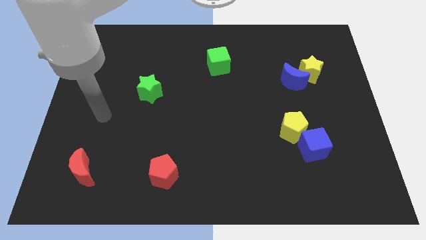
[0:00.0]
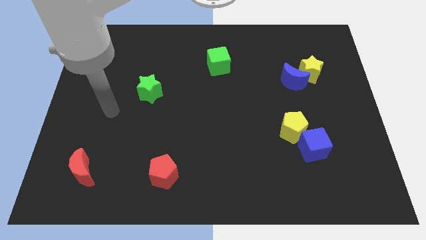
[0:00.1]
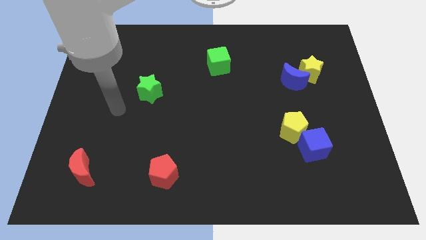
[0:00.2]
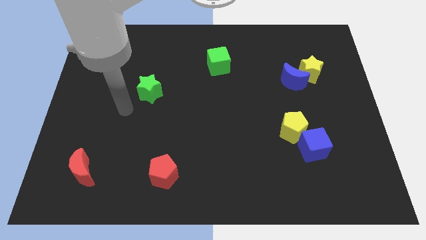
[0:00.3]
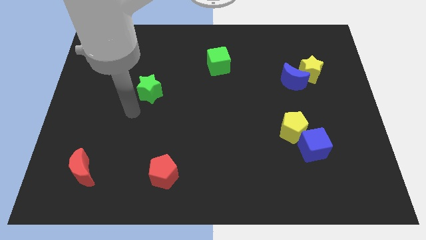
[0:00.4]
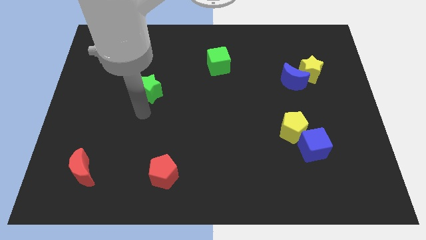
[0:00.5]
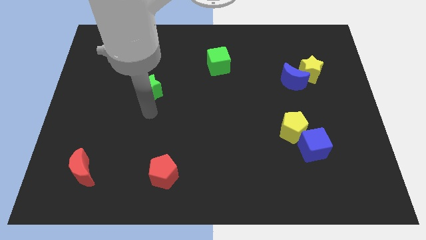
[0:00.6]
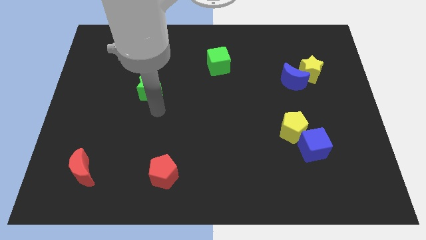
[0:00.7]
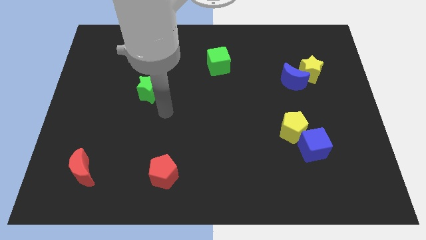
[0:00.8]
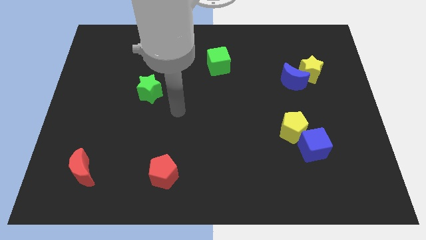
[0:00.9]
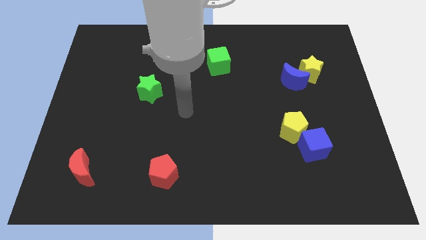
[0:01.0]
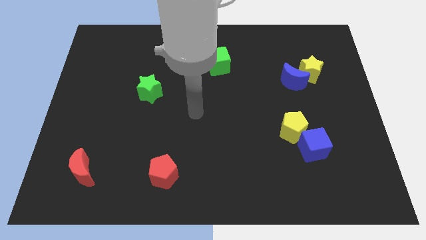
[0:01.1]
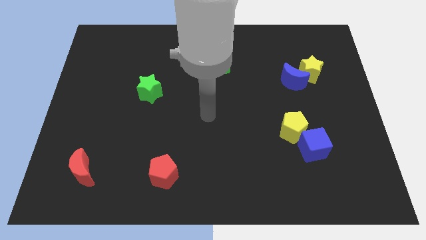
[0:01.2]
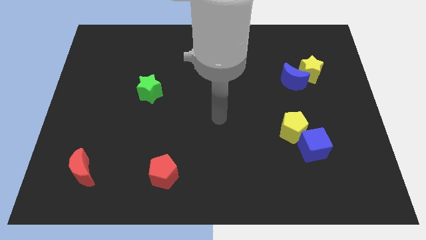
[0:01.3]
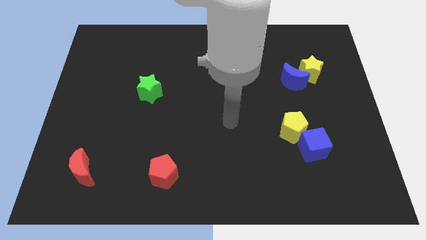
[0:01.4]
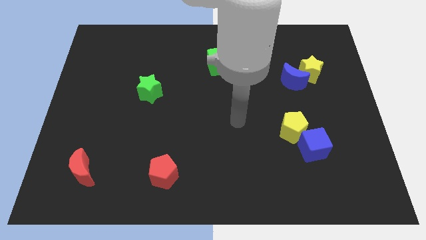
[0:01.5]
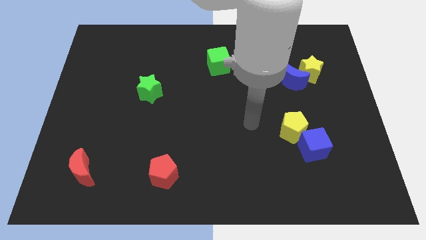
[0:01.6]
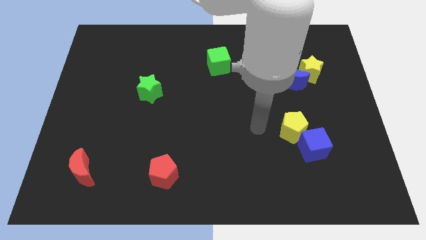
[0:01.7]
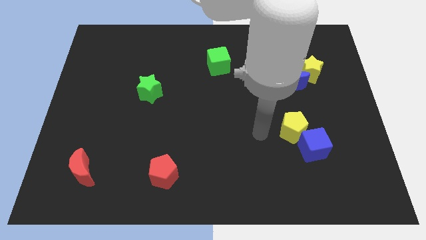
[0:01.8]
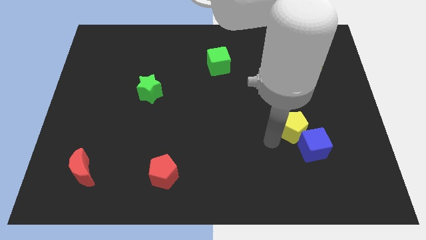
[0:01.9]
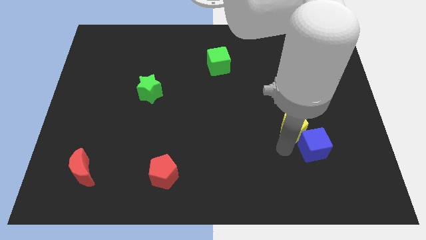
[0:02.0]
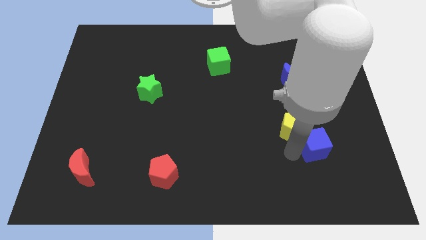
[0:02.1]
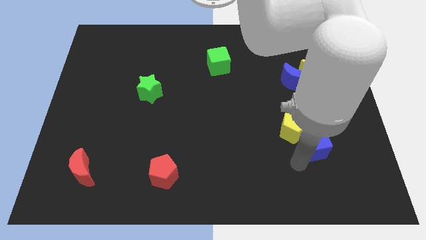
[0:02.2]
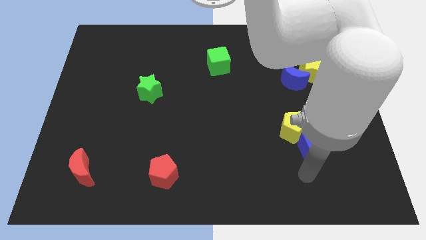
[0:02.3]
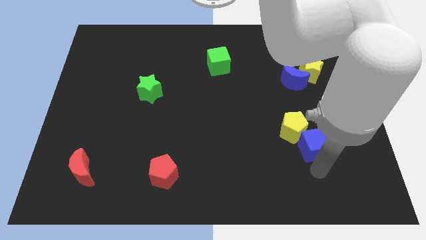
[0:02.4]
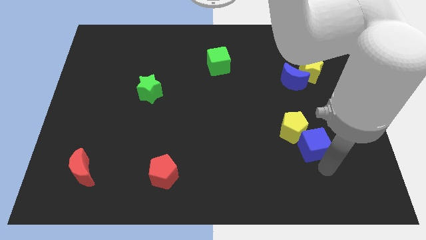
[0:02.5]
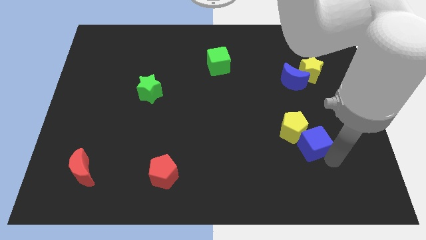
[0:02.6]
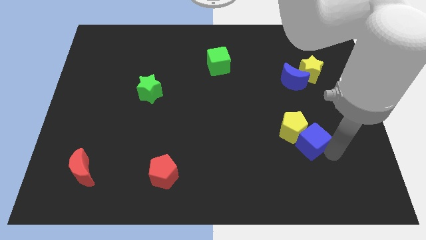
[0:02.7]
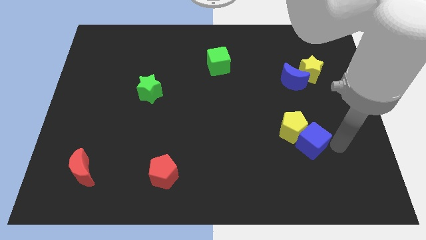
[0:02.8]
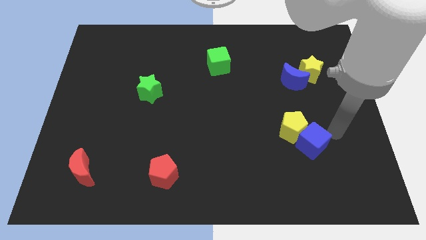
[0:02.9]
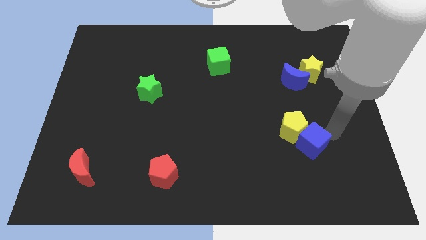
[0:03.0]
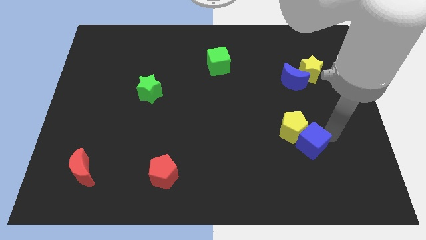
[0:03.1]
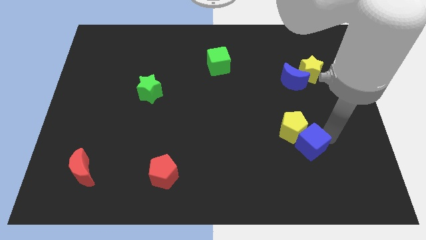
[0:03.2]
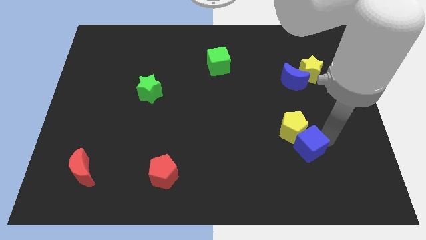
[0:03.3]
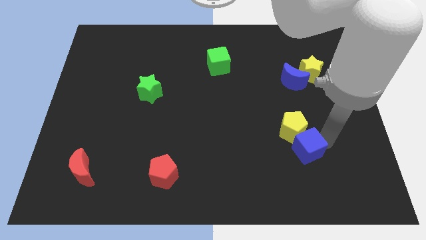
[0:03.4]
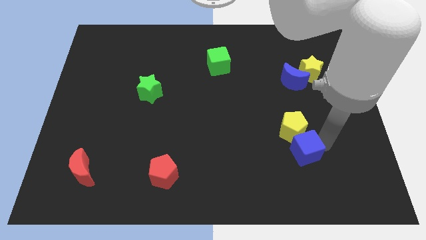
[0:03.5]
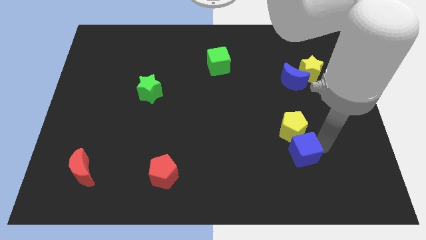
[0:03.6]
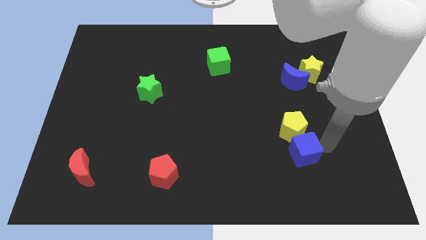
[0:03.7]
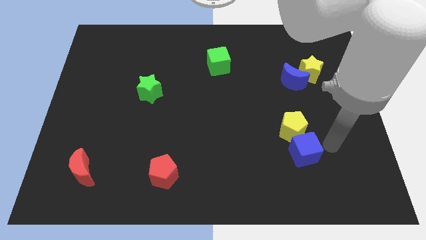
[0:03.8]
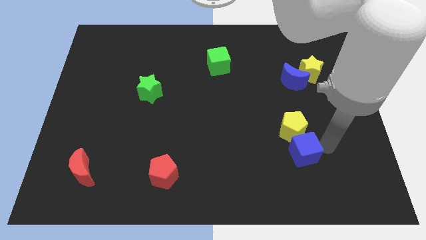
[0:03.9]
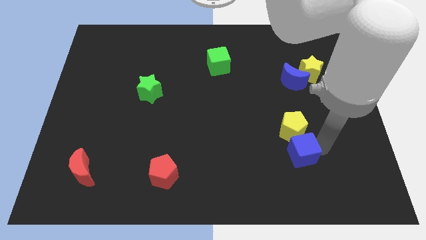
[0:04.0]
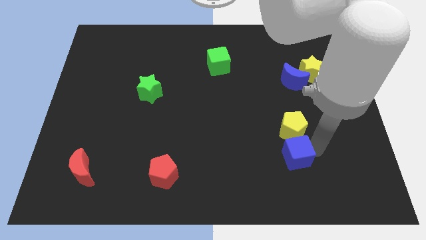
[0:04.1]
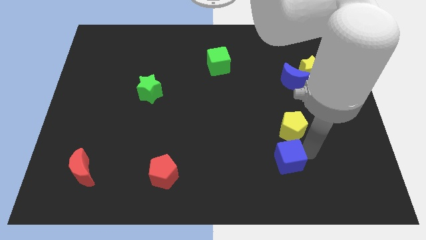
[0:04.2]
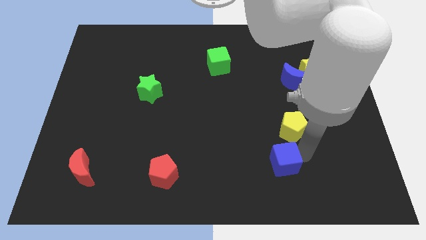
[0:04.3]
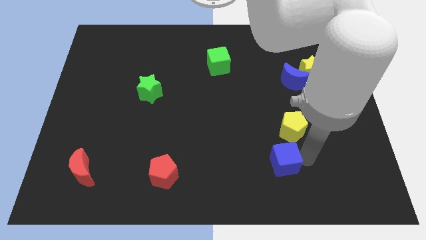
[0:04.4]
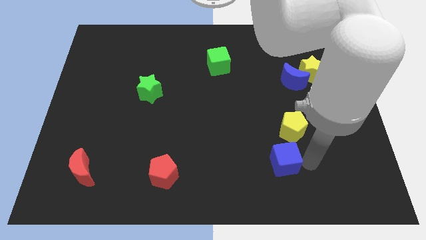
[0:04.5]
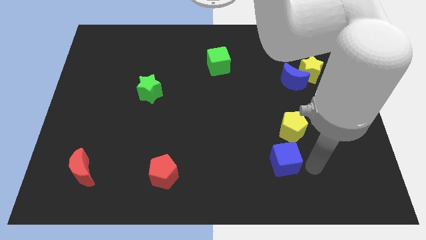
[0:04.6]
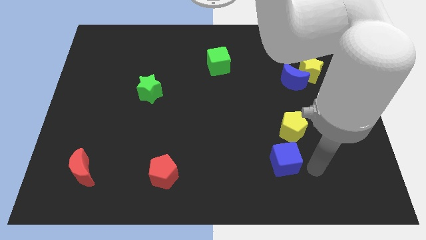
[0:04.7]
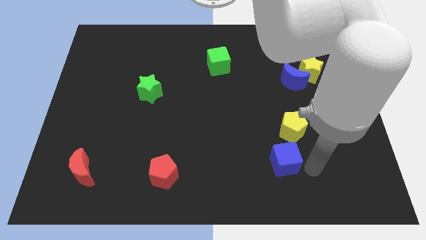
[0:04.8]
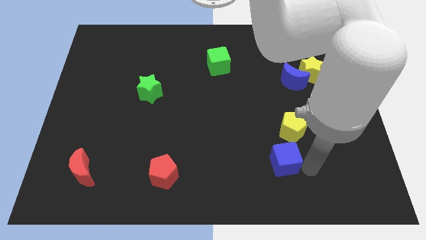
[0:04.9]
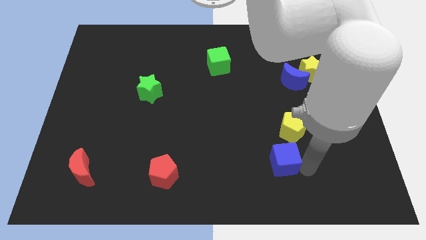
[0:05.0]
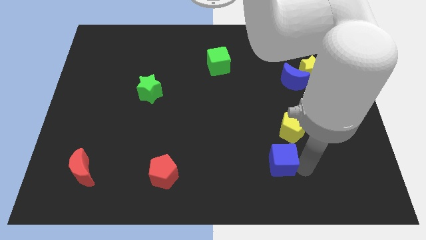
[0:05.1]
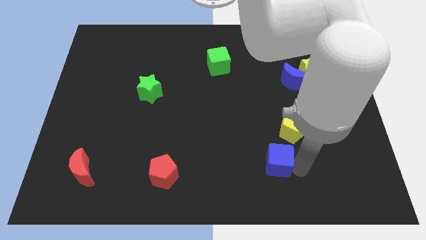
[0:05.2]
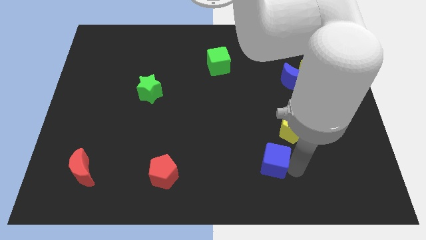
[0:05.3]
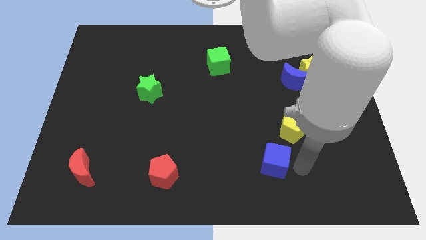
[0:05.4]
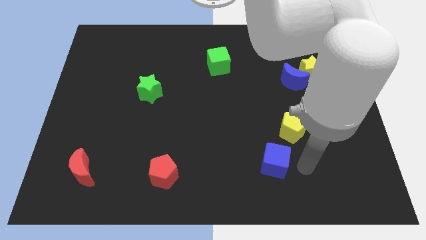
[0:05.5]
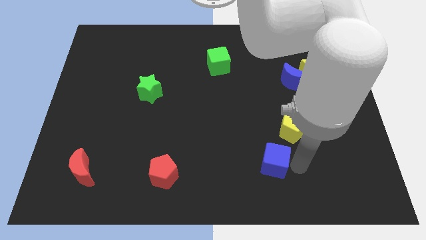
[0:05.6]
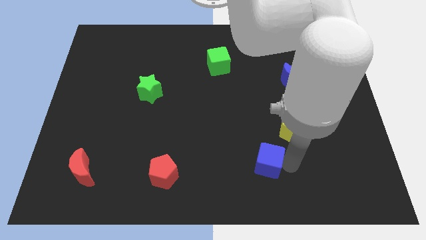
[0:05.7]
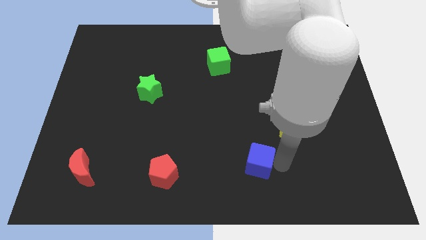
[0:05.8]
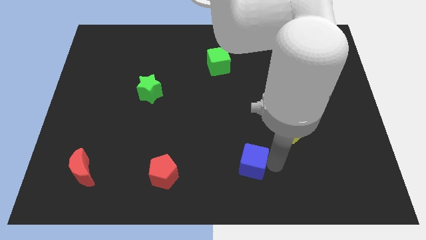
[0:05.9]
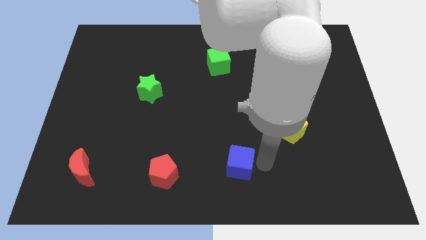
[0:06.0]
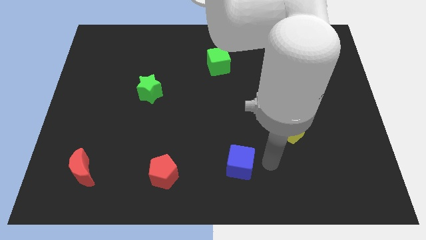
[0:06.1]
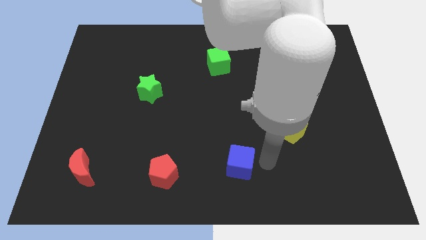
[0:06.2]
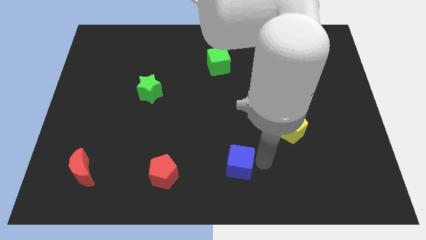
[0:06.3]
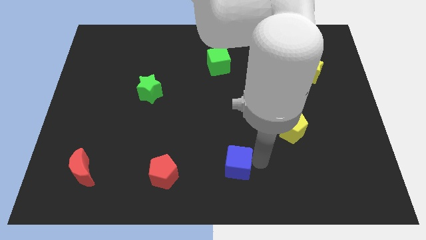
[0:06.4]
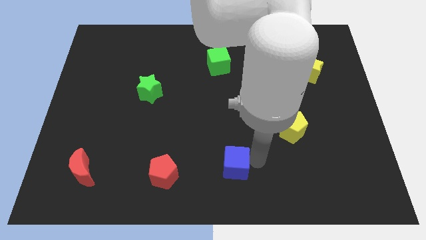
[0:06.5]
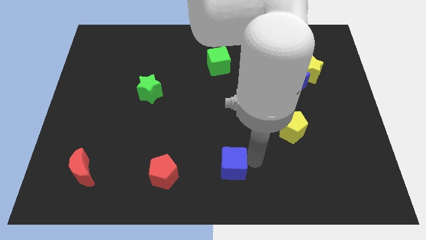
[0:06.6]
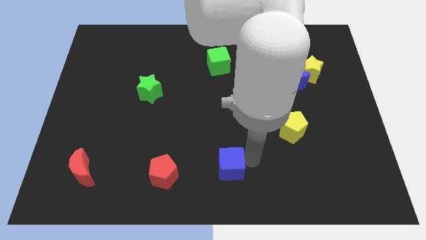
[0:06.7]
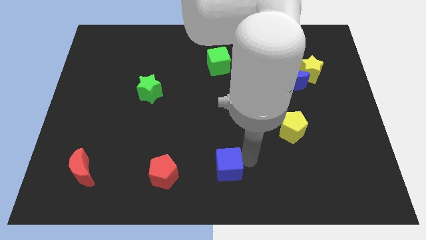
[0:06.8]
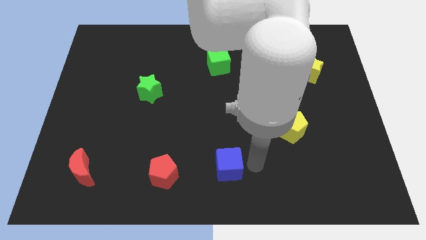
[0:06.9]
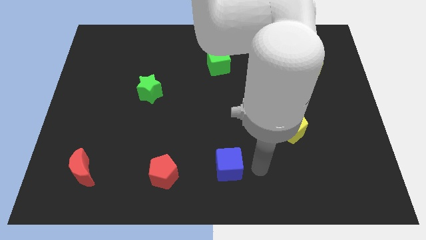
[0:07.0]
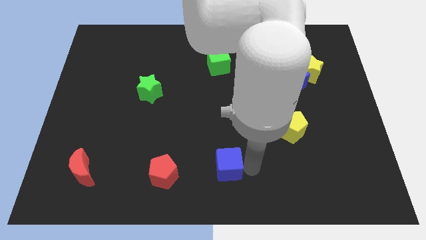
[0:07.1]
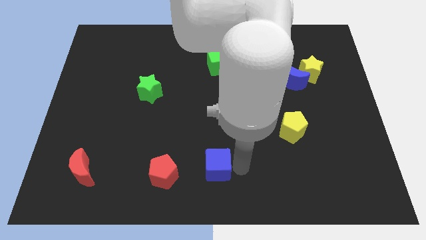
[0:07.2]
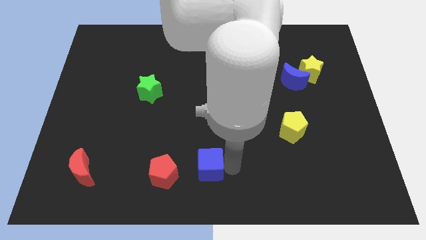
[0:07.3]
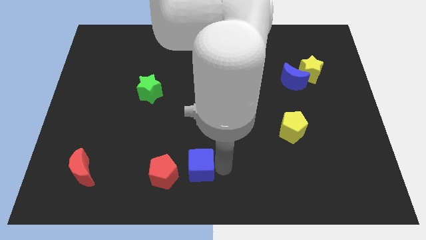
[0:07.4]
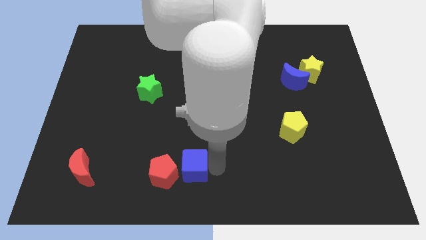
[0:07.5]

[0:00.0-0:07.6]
put the blue cube towards the red pentagon
